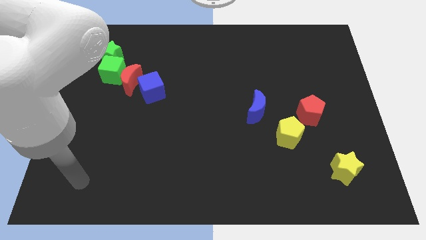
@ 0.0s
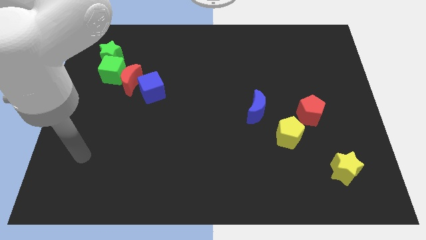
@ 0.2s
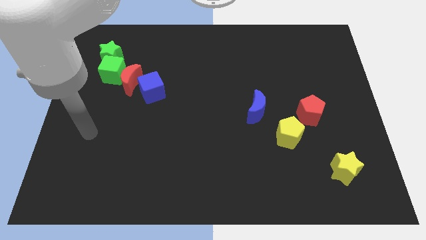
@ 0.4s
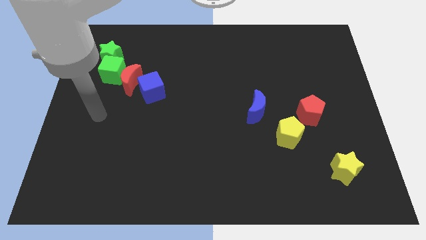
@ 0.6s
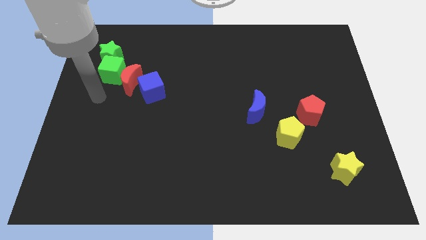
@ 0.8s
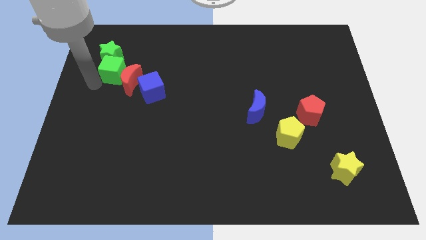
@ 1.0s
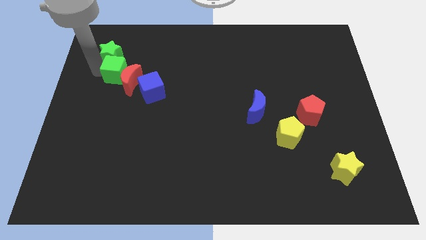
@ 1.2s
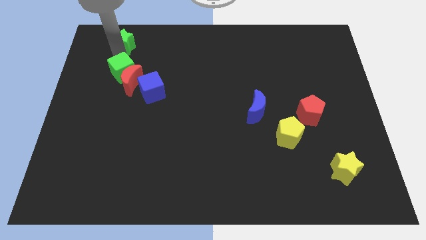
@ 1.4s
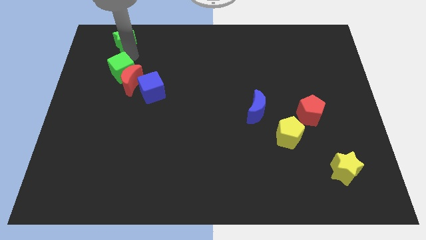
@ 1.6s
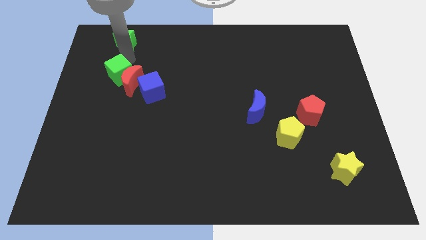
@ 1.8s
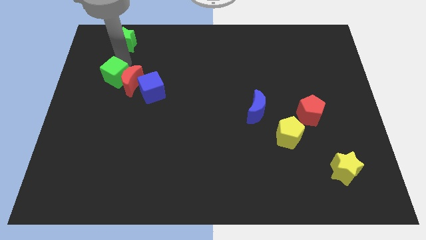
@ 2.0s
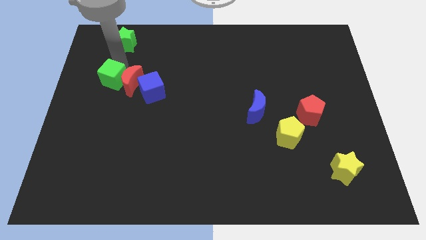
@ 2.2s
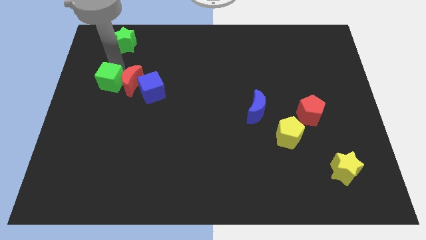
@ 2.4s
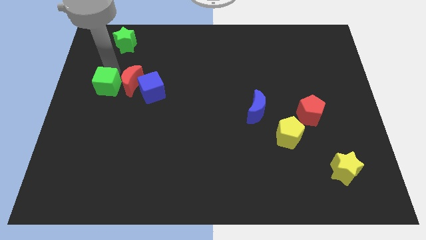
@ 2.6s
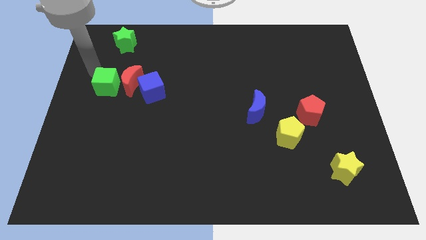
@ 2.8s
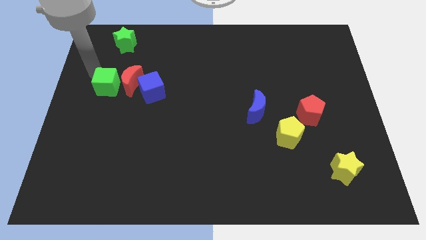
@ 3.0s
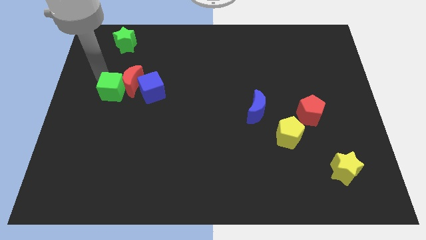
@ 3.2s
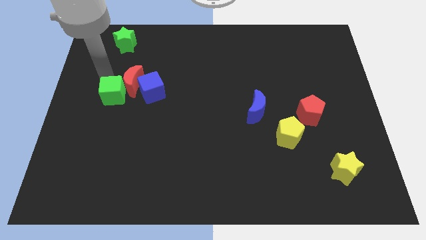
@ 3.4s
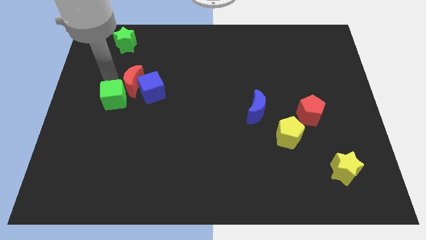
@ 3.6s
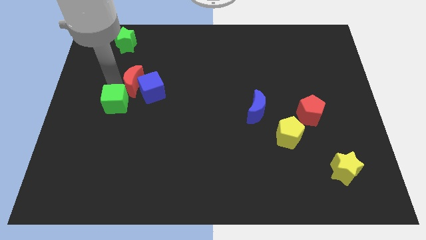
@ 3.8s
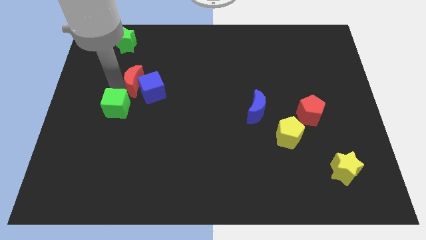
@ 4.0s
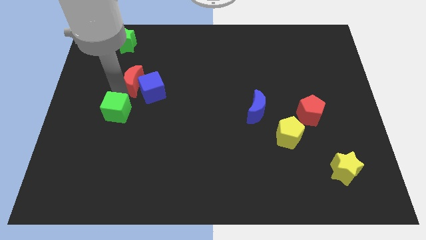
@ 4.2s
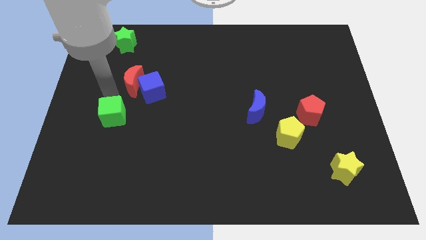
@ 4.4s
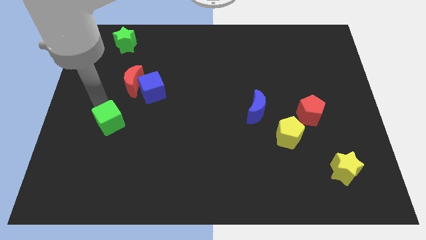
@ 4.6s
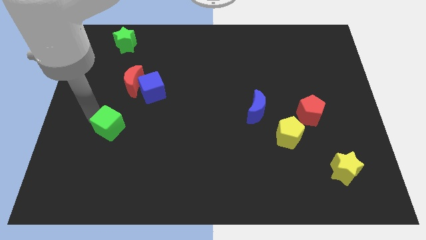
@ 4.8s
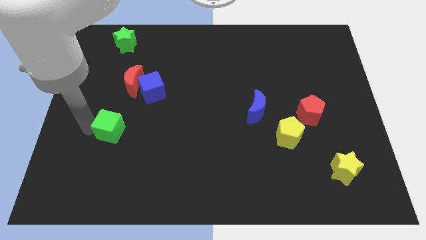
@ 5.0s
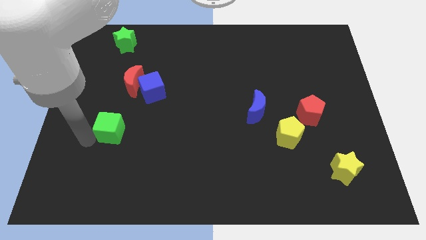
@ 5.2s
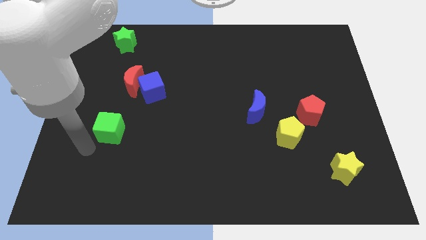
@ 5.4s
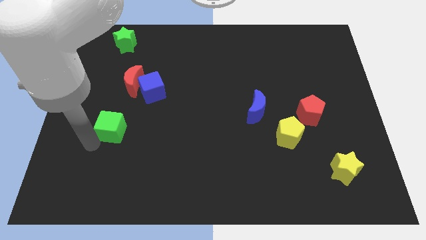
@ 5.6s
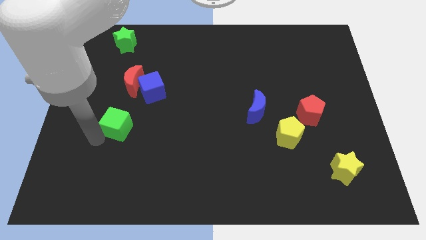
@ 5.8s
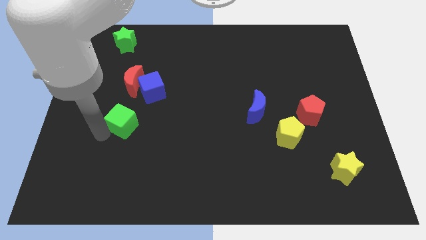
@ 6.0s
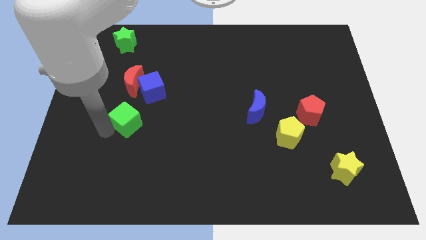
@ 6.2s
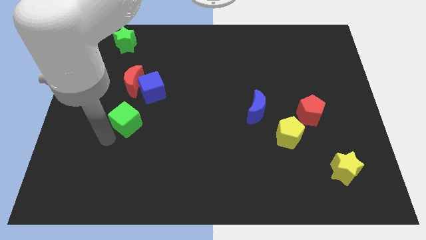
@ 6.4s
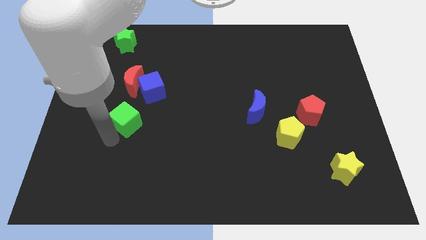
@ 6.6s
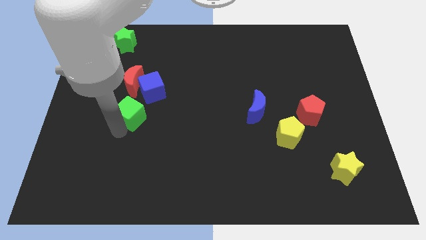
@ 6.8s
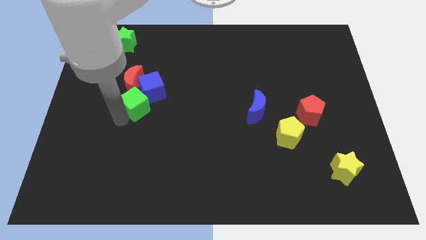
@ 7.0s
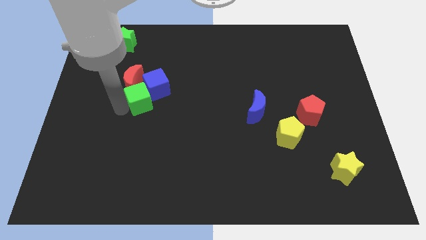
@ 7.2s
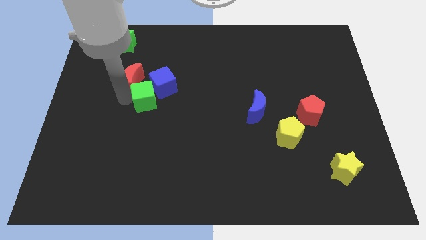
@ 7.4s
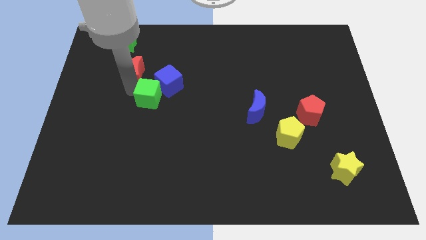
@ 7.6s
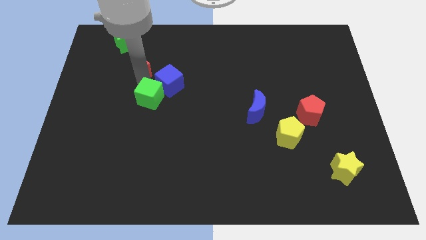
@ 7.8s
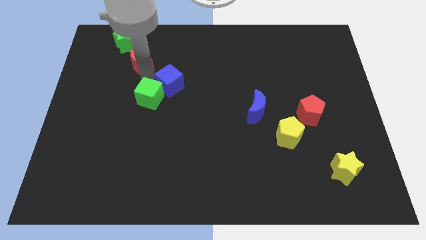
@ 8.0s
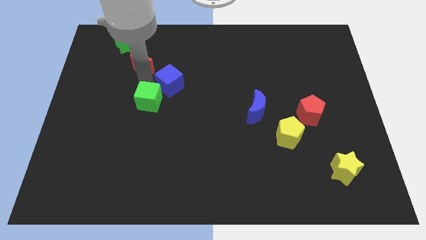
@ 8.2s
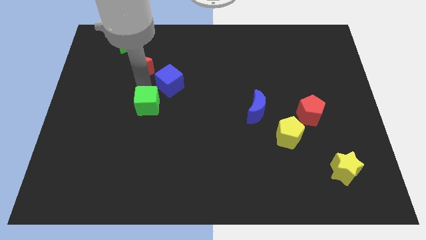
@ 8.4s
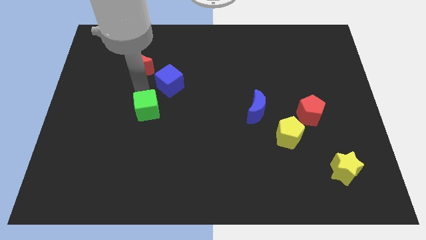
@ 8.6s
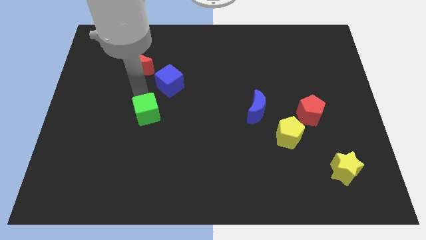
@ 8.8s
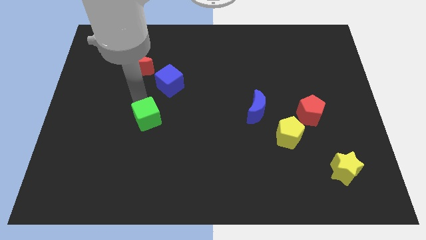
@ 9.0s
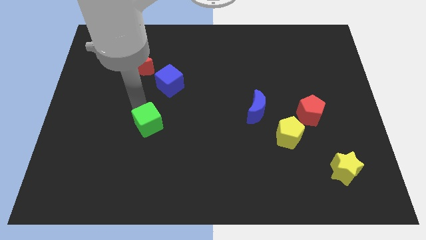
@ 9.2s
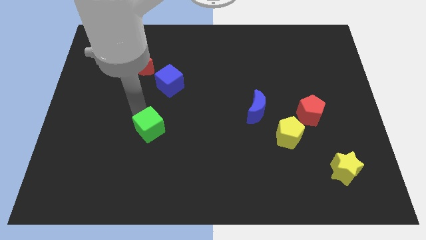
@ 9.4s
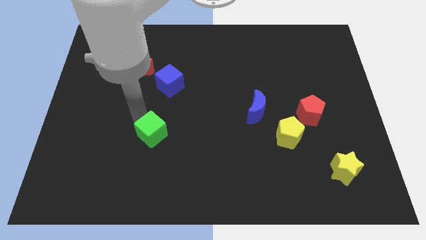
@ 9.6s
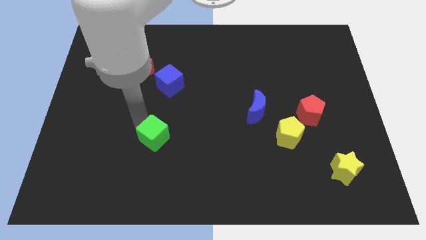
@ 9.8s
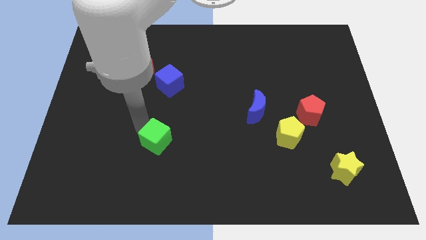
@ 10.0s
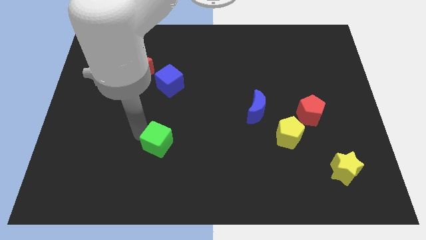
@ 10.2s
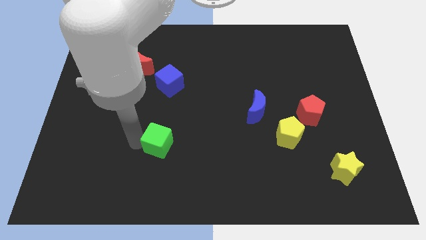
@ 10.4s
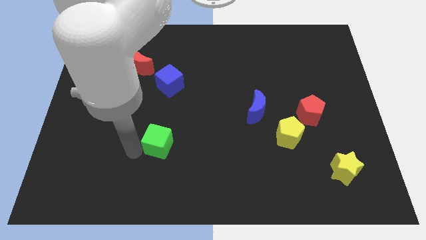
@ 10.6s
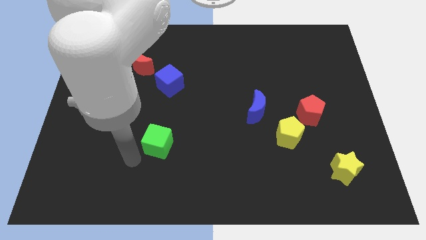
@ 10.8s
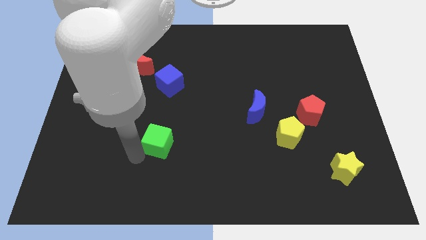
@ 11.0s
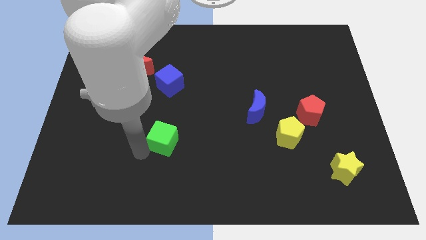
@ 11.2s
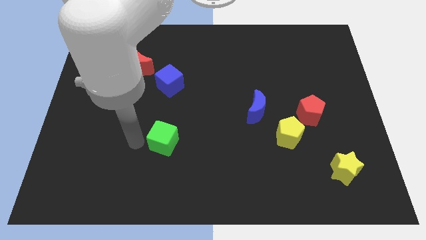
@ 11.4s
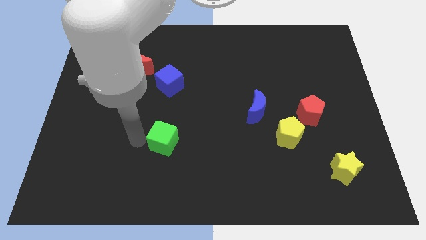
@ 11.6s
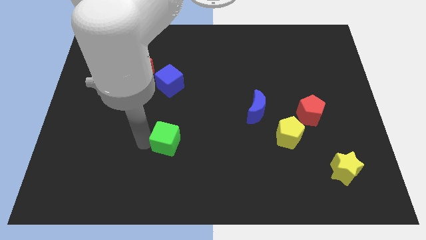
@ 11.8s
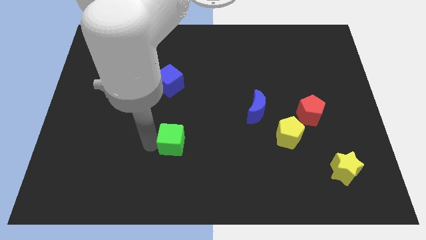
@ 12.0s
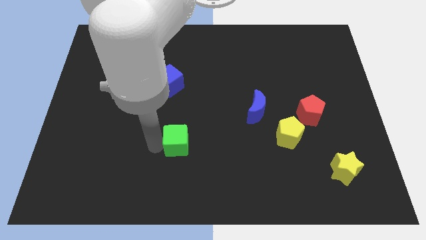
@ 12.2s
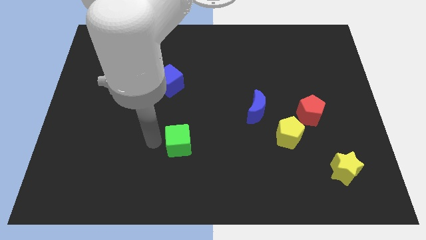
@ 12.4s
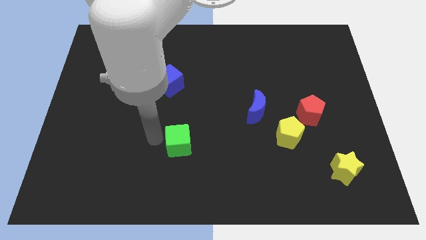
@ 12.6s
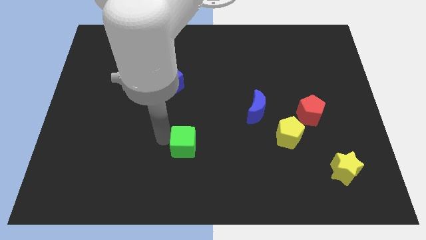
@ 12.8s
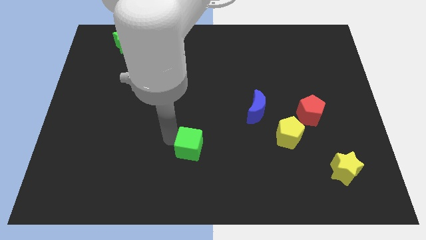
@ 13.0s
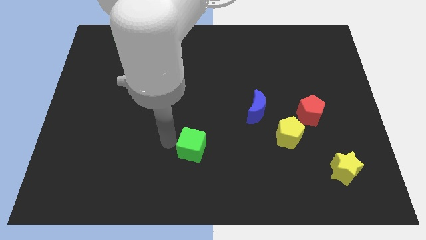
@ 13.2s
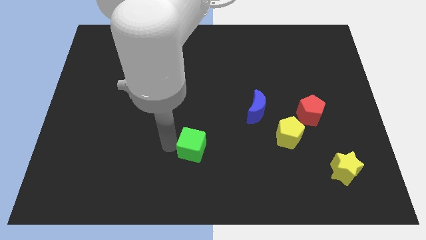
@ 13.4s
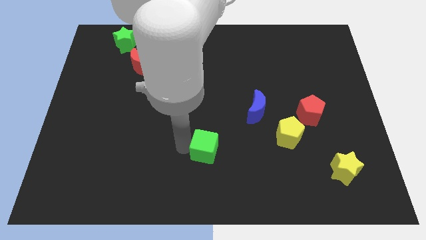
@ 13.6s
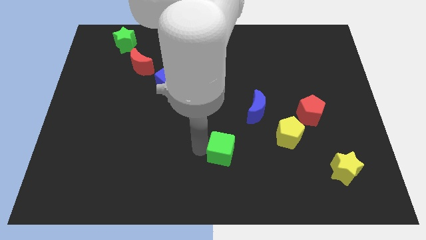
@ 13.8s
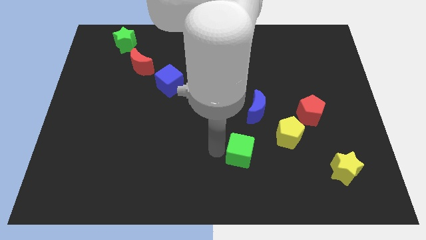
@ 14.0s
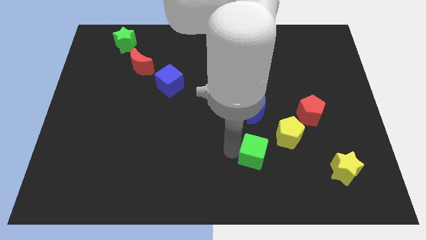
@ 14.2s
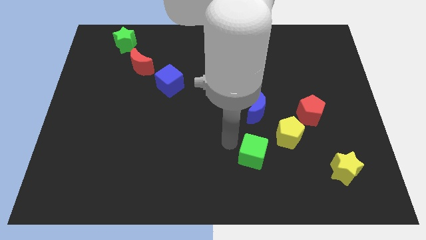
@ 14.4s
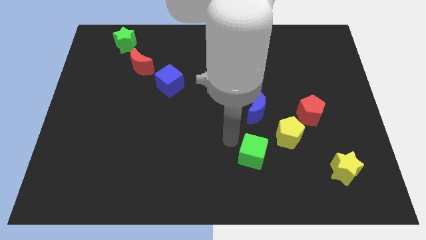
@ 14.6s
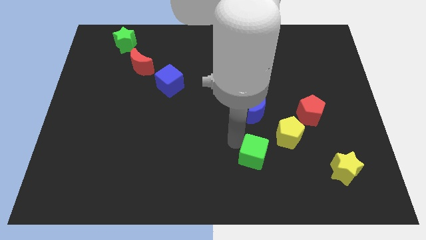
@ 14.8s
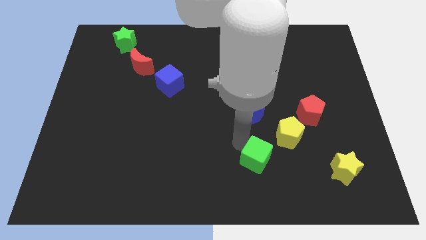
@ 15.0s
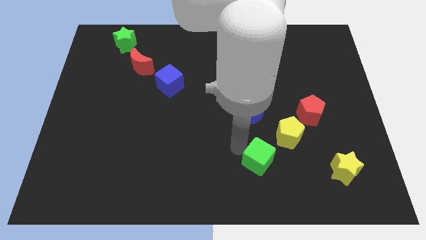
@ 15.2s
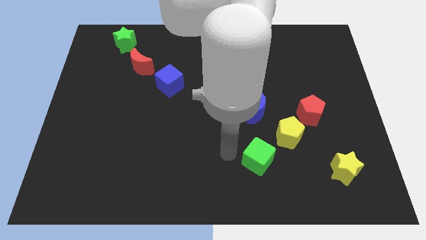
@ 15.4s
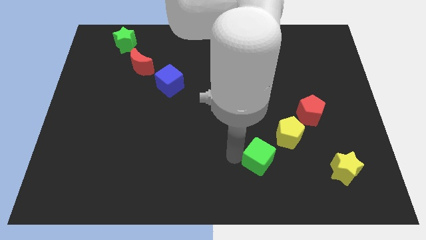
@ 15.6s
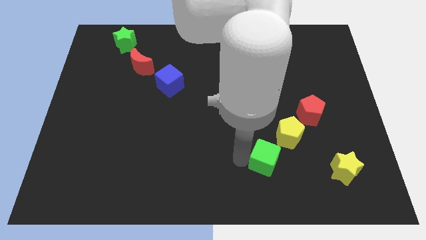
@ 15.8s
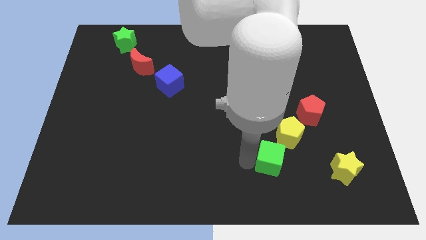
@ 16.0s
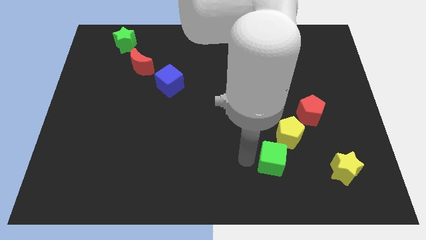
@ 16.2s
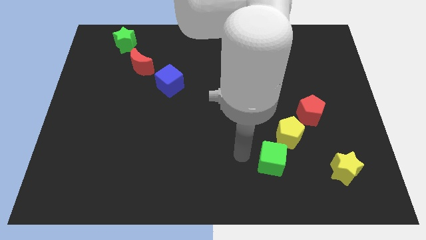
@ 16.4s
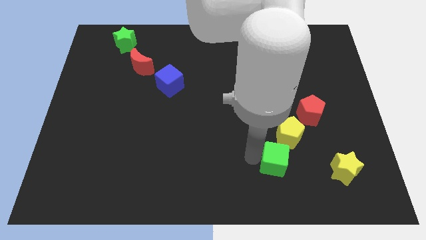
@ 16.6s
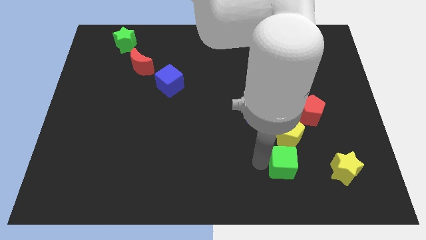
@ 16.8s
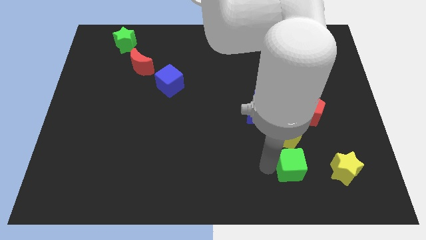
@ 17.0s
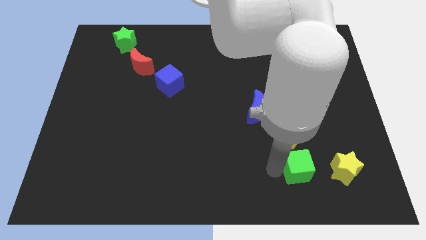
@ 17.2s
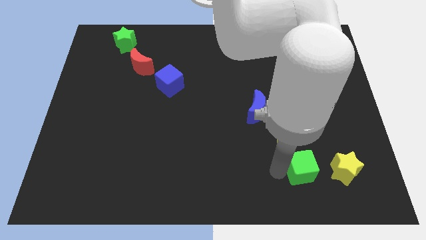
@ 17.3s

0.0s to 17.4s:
slide the green cube diagonally down and to the right of the yellow pentagon
